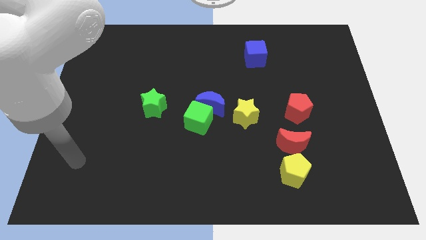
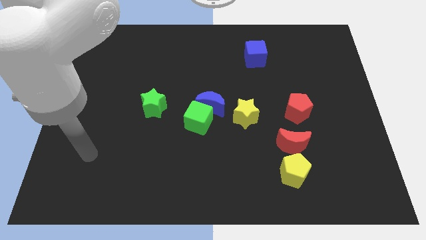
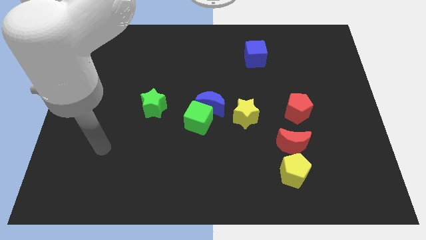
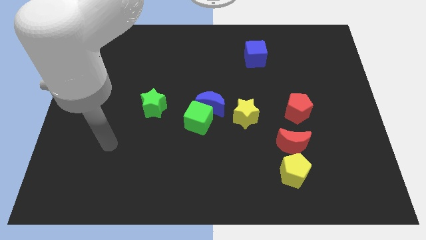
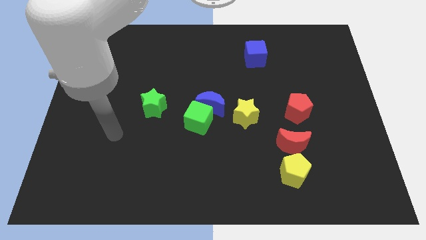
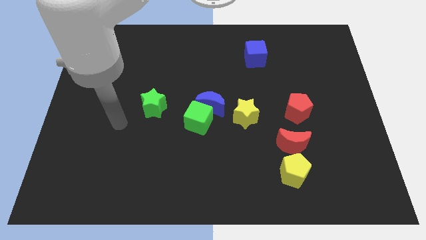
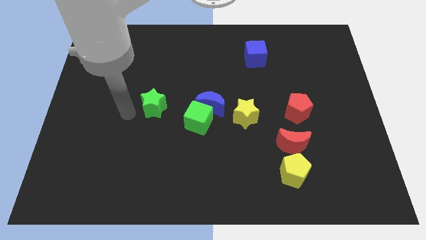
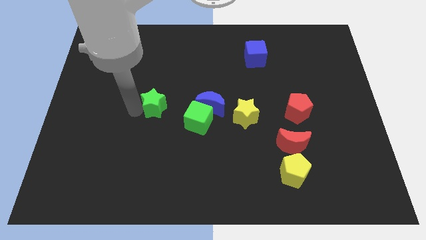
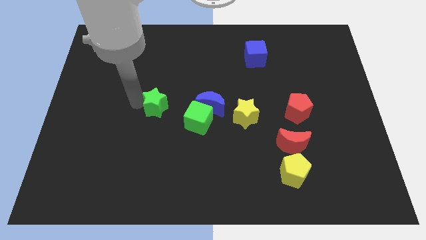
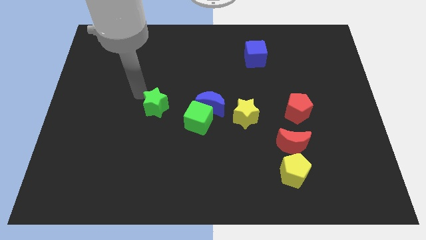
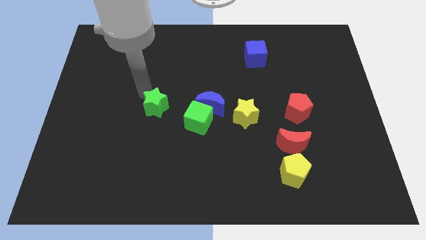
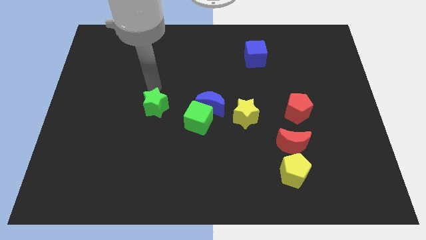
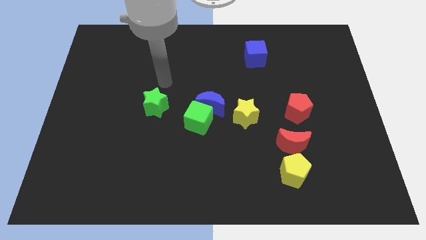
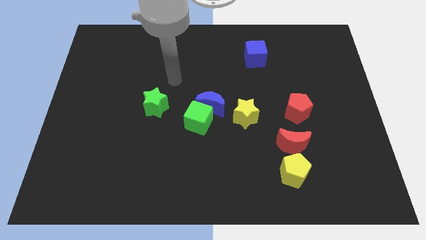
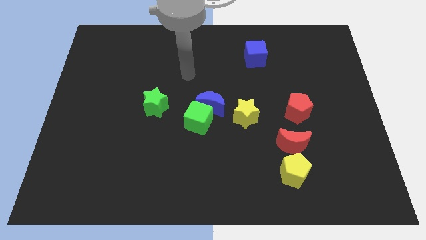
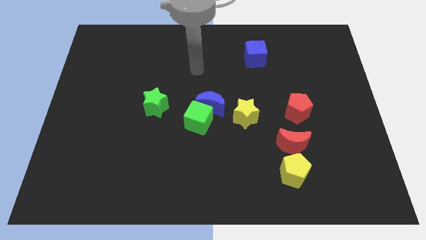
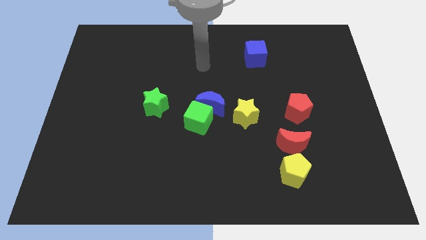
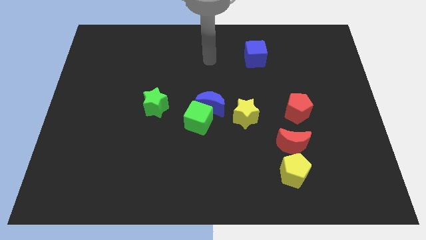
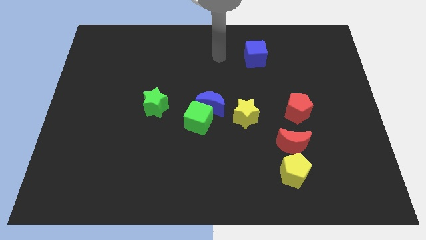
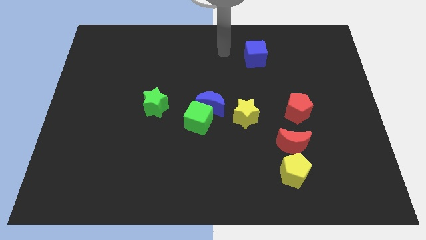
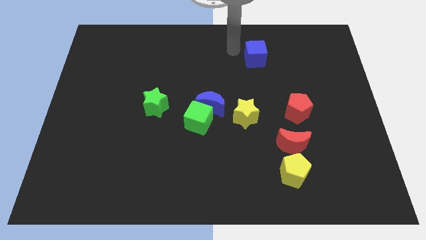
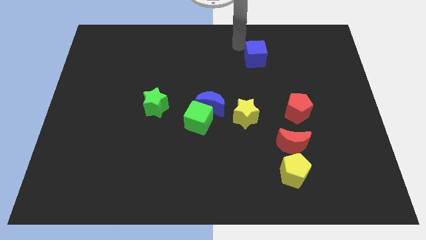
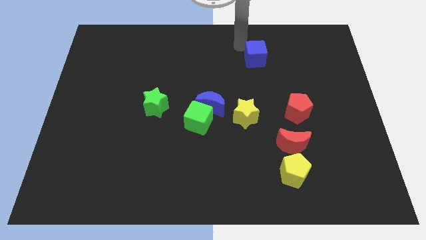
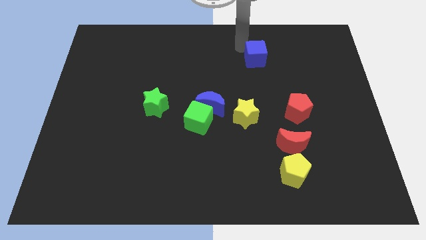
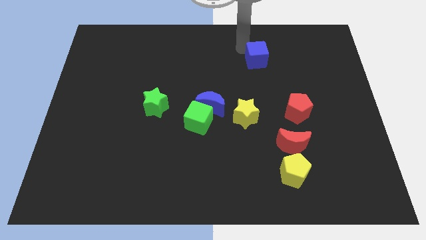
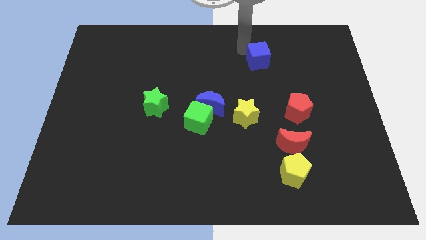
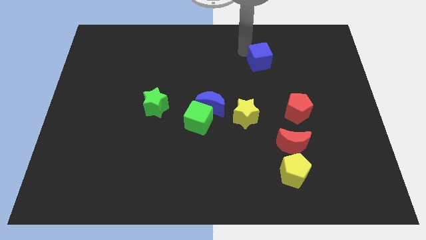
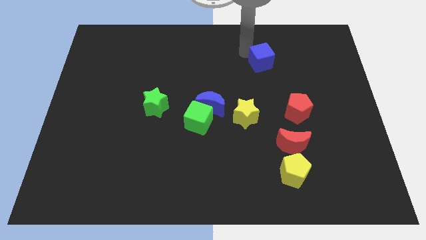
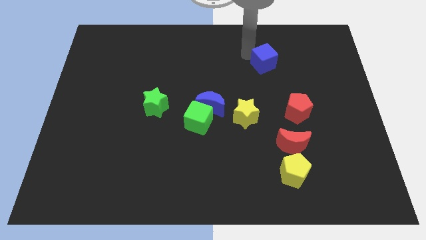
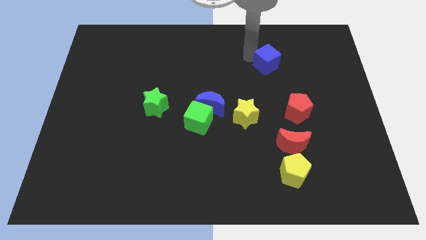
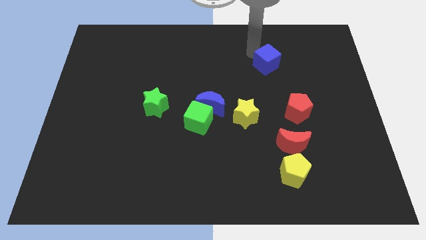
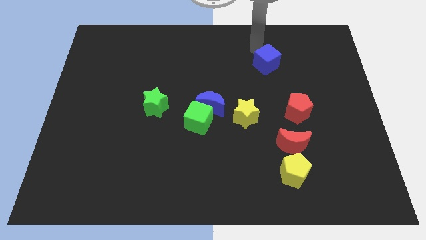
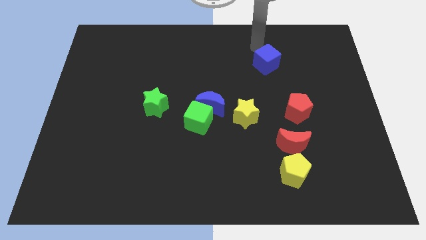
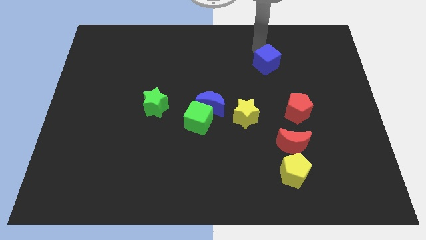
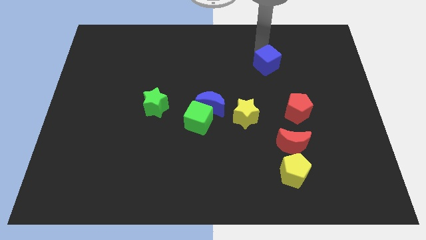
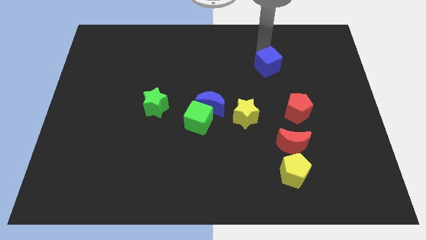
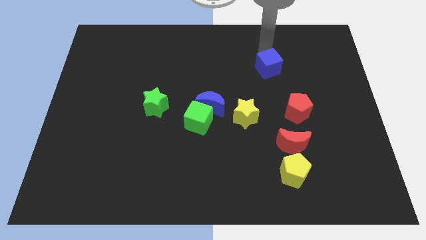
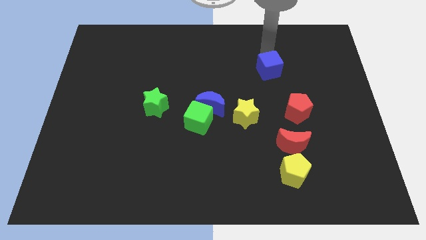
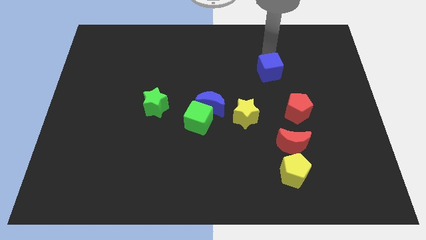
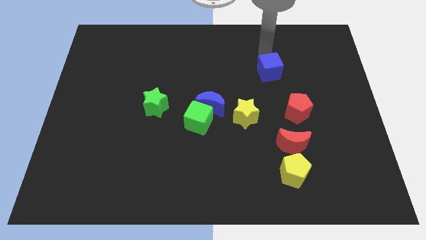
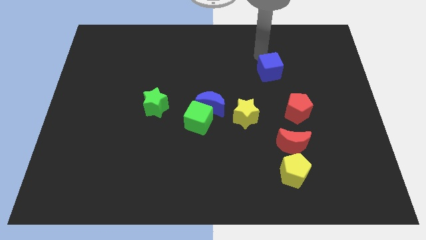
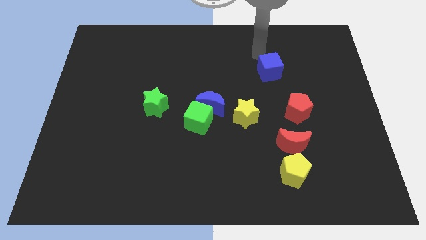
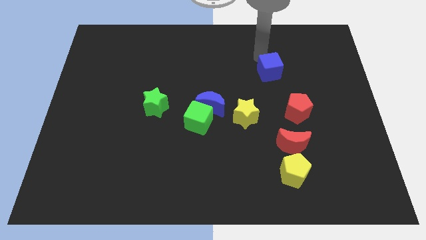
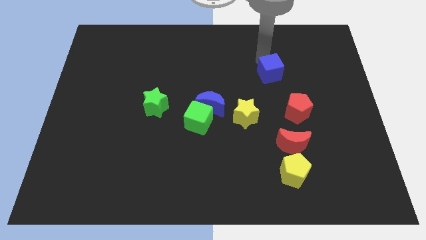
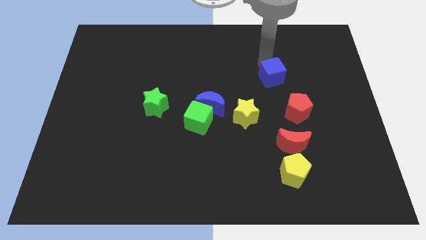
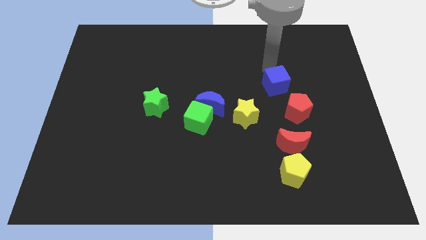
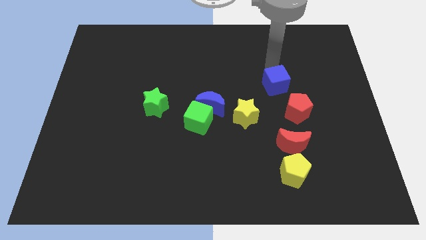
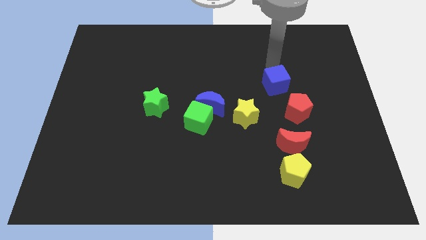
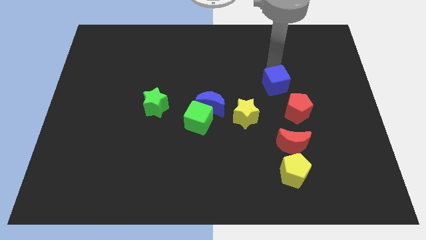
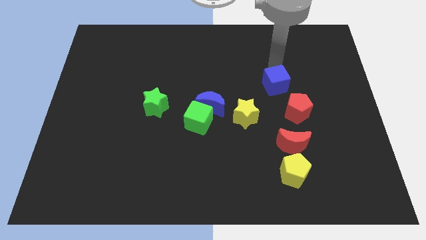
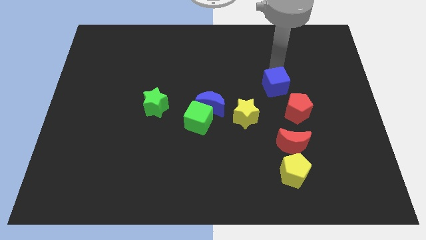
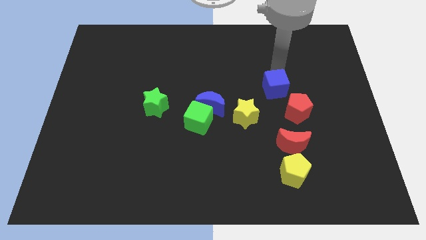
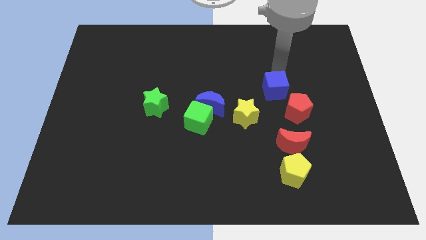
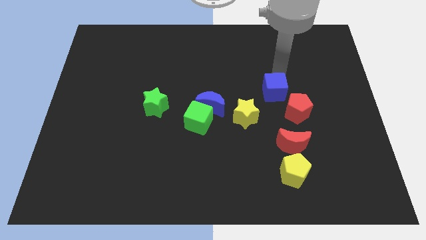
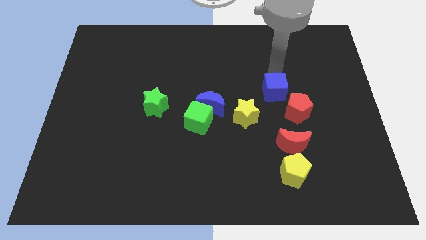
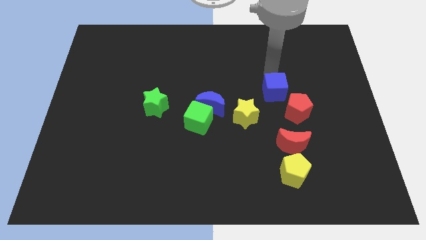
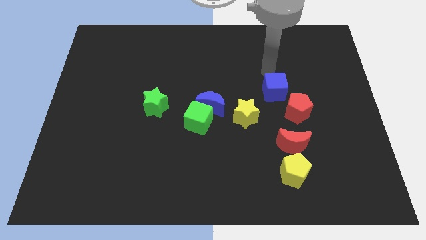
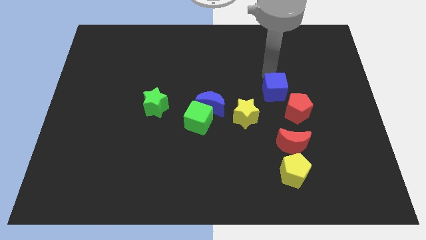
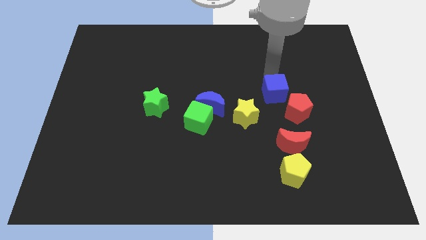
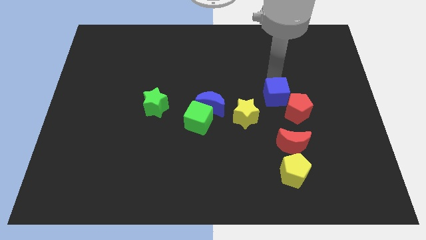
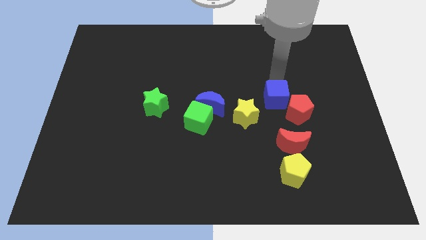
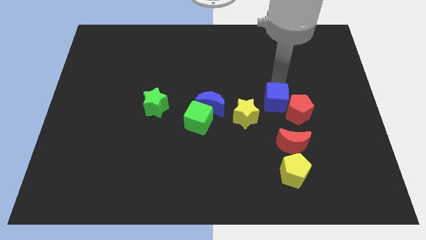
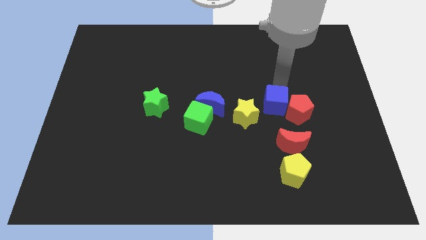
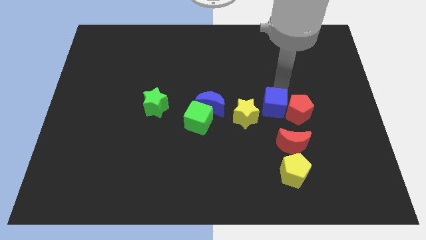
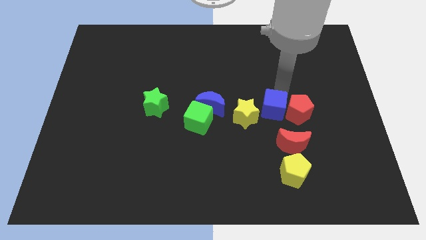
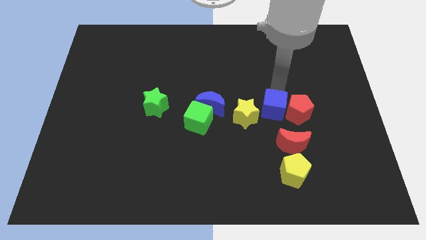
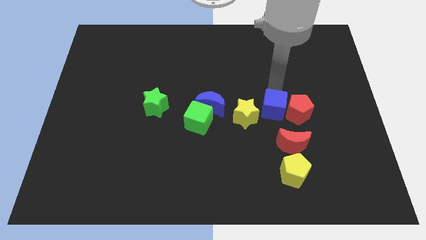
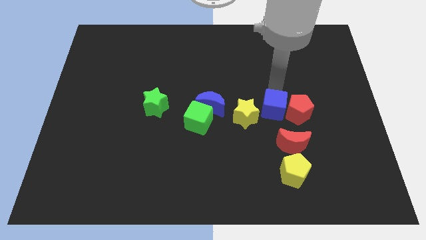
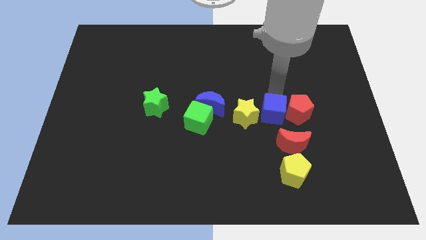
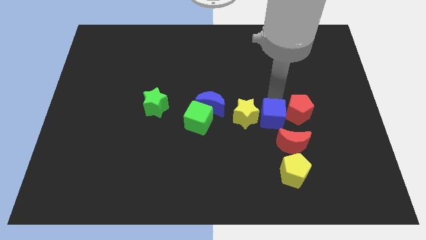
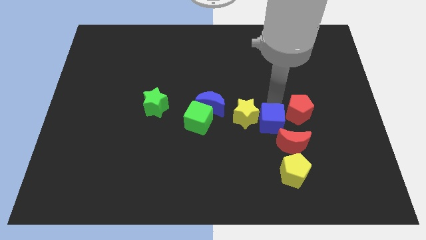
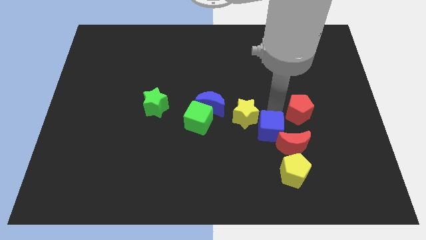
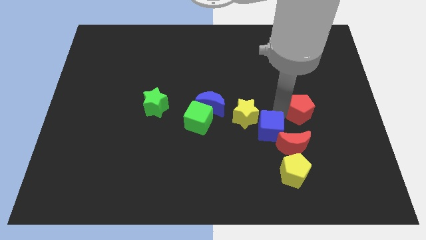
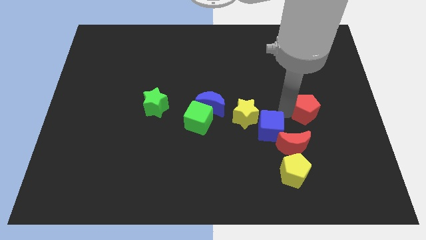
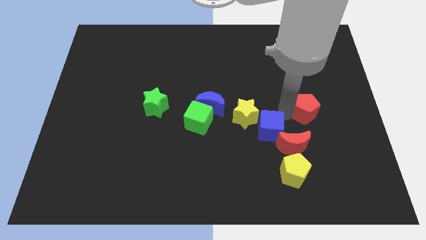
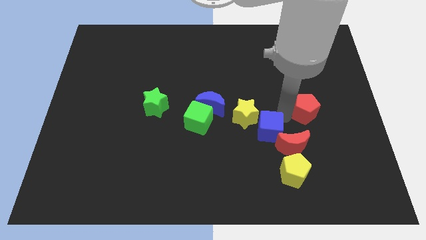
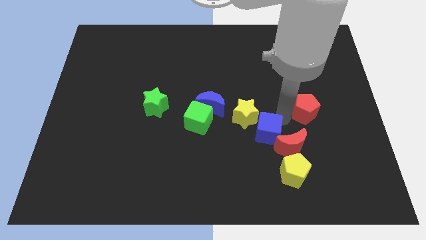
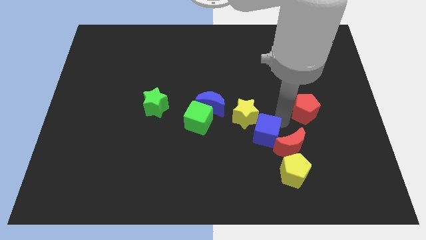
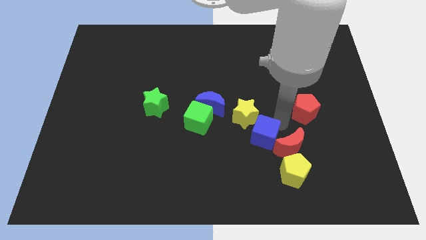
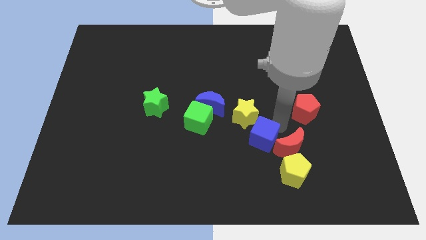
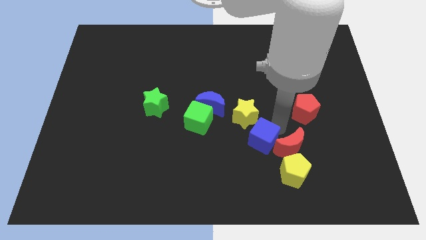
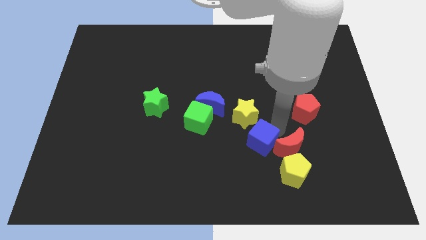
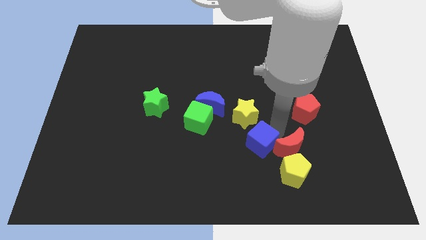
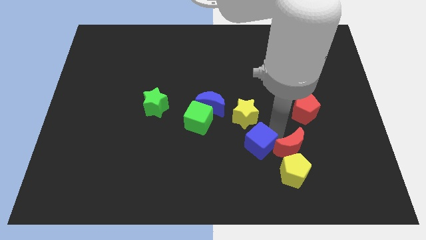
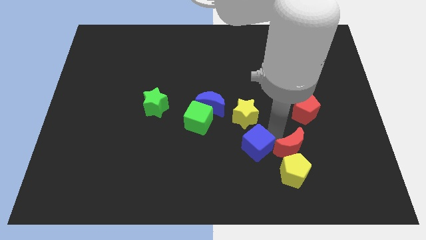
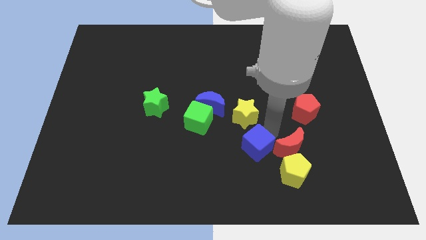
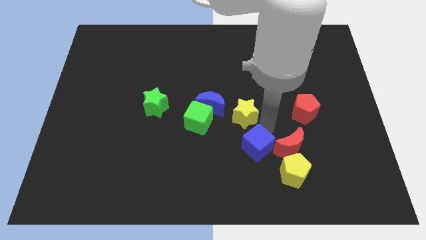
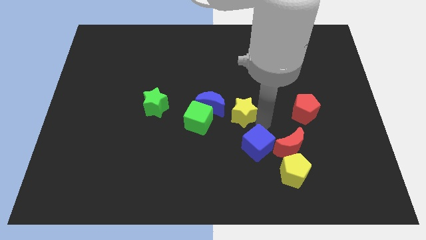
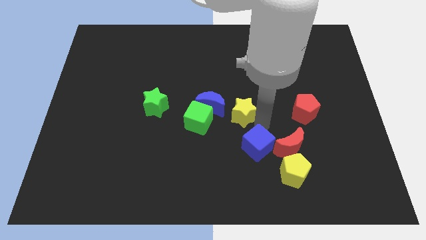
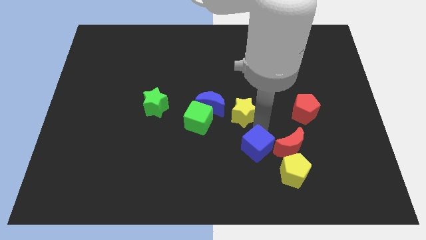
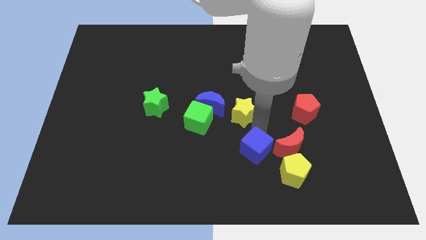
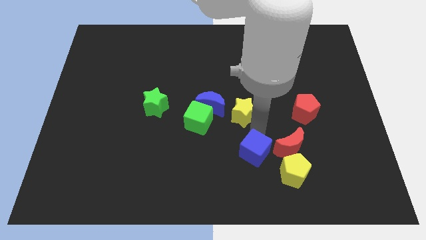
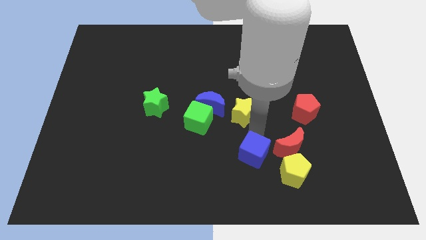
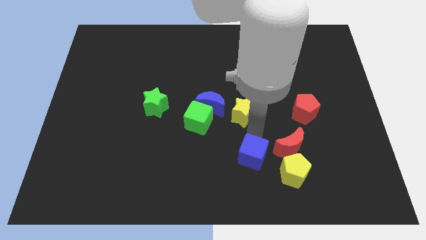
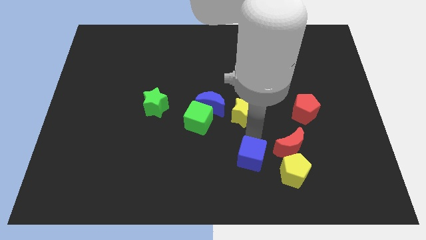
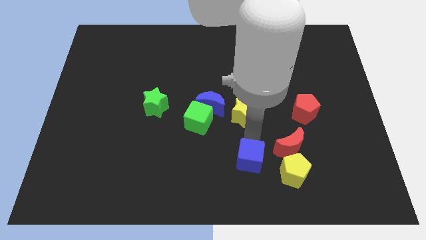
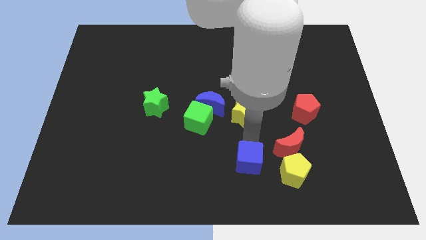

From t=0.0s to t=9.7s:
push the blue cube to the bottom
